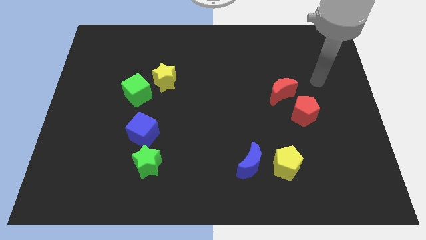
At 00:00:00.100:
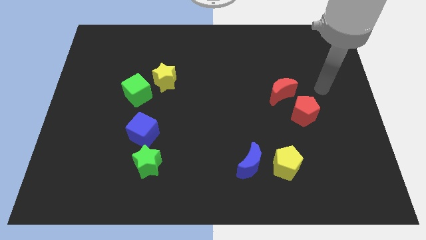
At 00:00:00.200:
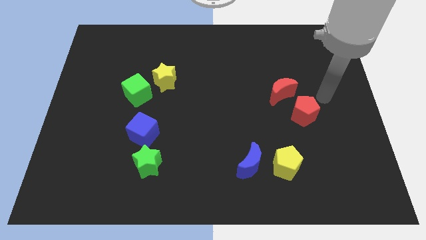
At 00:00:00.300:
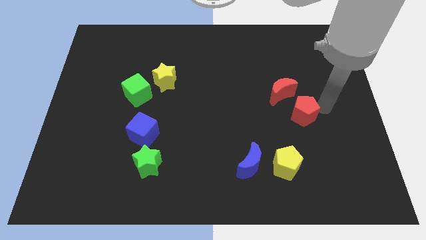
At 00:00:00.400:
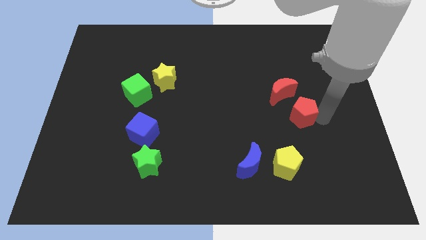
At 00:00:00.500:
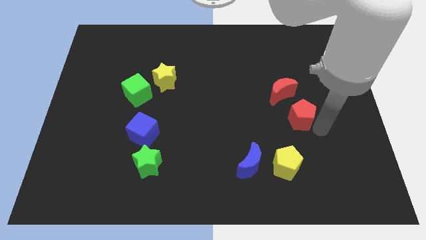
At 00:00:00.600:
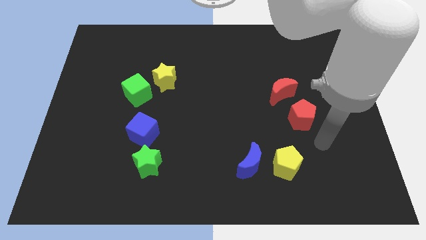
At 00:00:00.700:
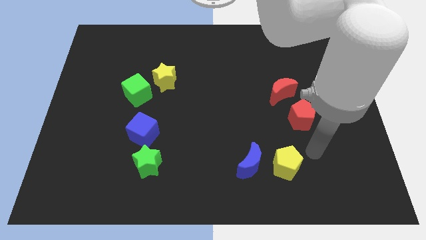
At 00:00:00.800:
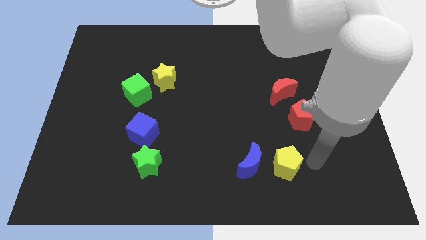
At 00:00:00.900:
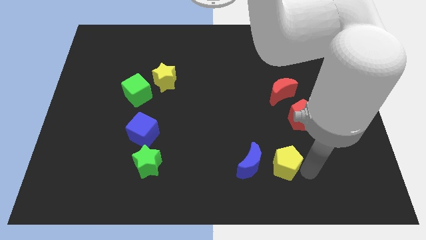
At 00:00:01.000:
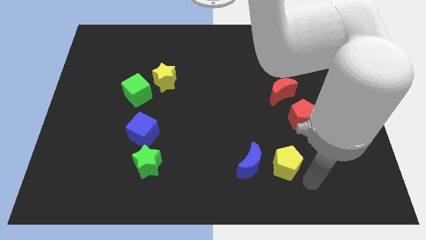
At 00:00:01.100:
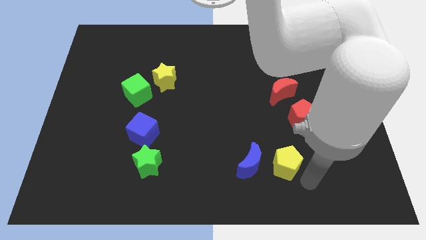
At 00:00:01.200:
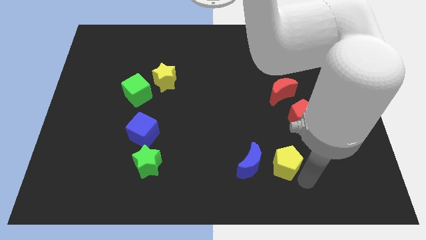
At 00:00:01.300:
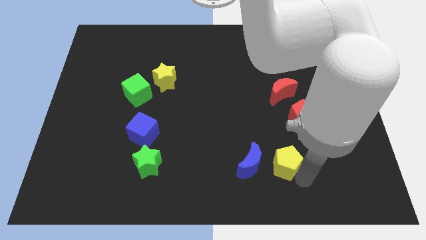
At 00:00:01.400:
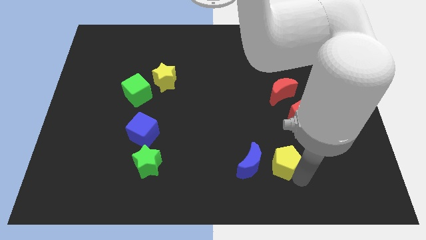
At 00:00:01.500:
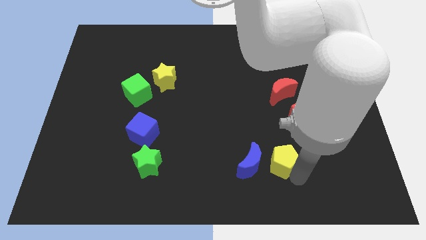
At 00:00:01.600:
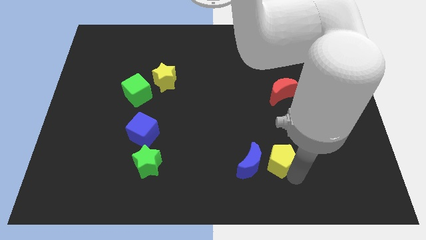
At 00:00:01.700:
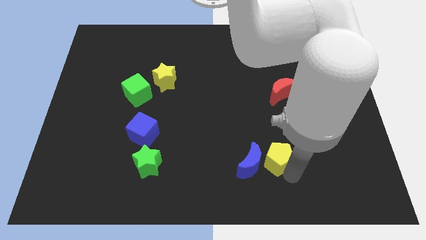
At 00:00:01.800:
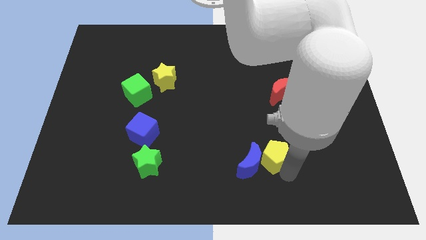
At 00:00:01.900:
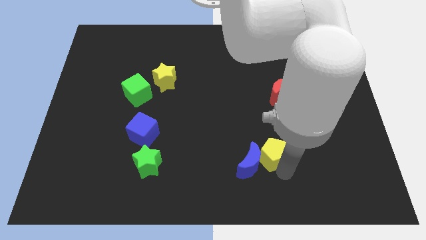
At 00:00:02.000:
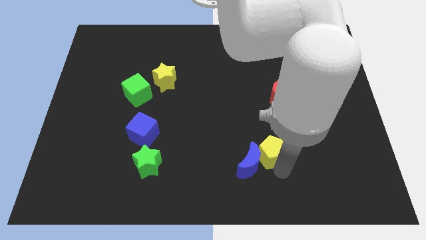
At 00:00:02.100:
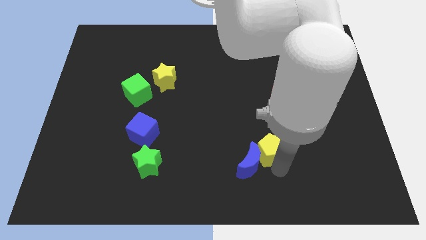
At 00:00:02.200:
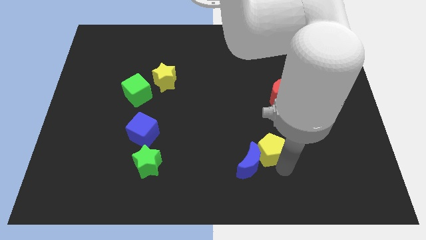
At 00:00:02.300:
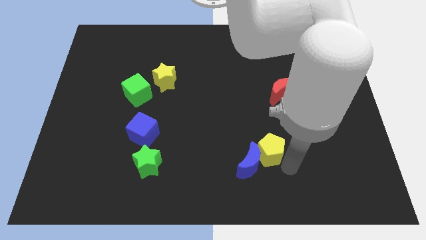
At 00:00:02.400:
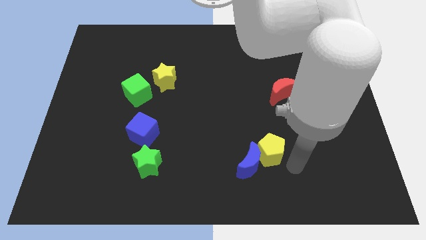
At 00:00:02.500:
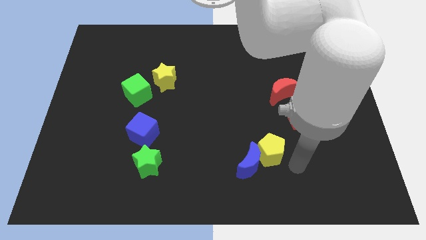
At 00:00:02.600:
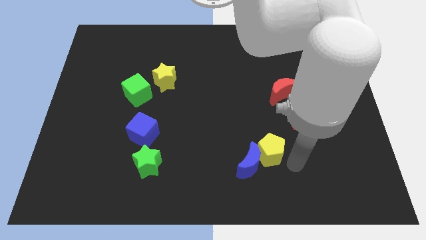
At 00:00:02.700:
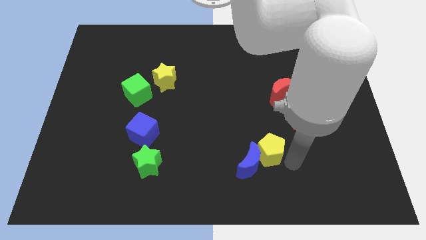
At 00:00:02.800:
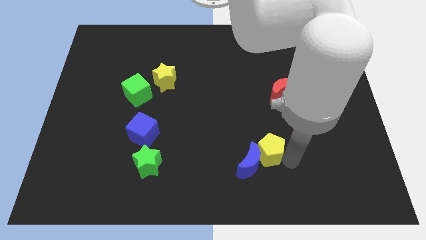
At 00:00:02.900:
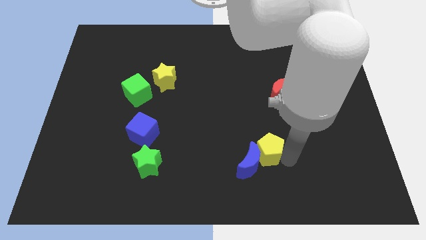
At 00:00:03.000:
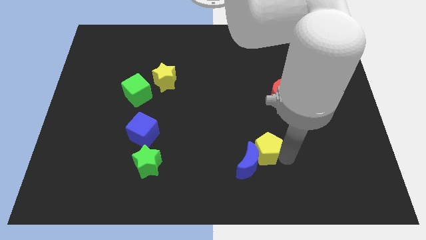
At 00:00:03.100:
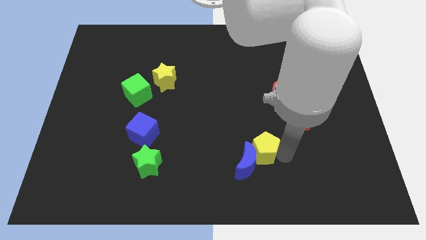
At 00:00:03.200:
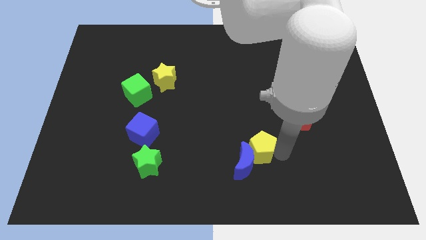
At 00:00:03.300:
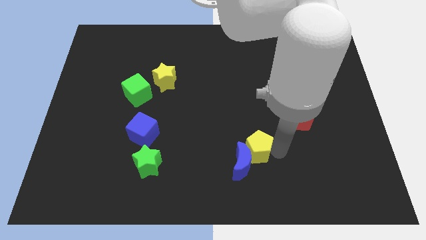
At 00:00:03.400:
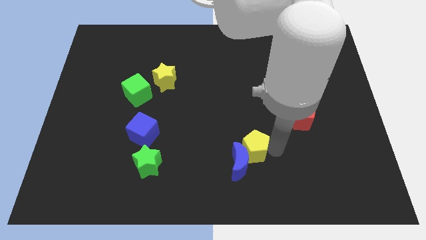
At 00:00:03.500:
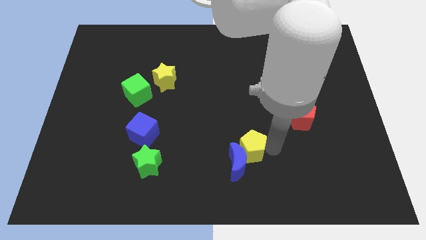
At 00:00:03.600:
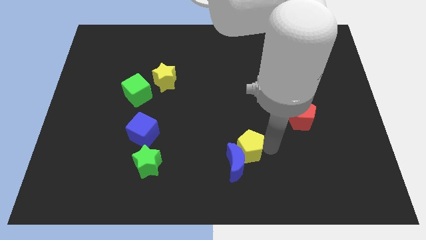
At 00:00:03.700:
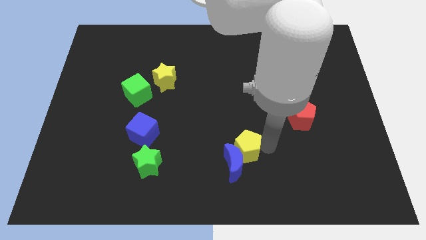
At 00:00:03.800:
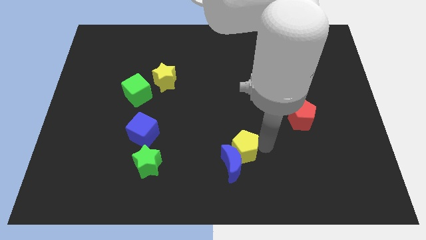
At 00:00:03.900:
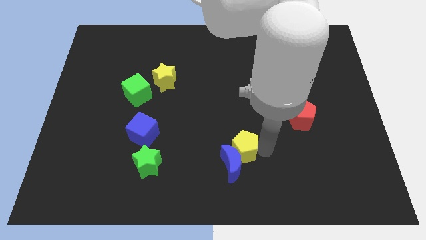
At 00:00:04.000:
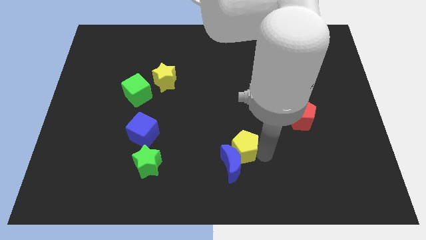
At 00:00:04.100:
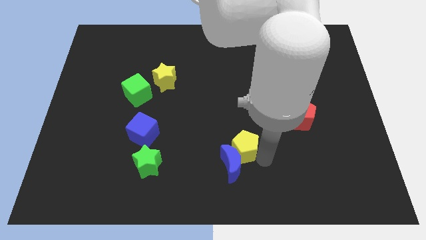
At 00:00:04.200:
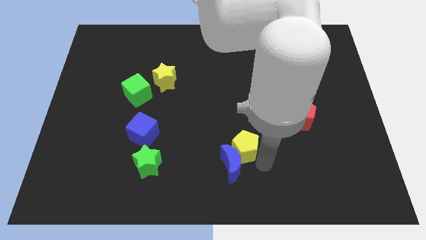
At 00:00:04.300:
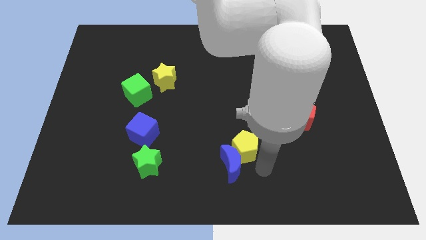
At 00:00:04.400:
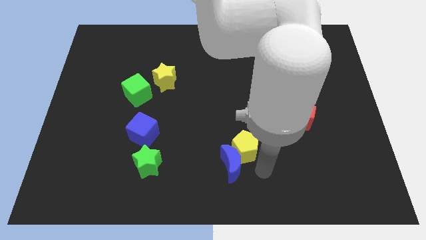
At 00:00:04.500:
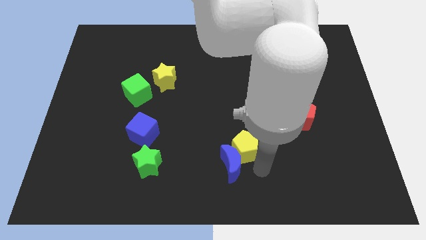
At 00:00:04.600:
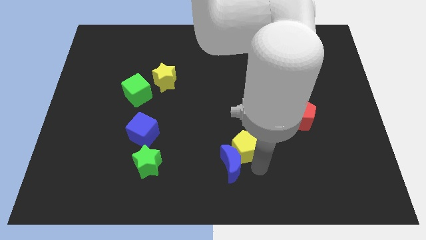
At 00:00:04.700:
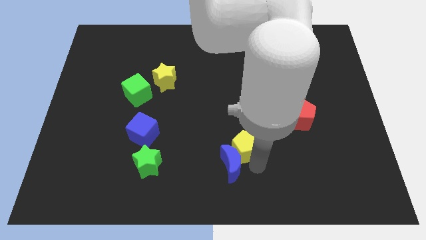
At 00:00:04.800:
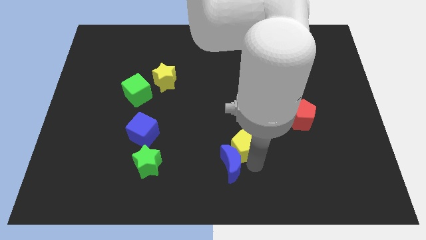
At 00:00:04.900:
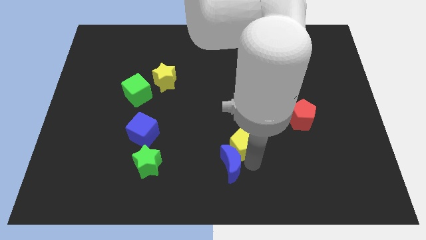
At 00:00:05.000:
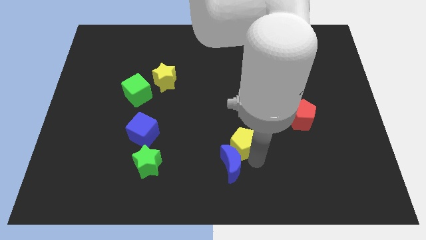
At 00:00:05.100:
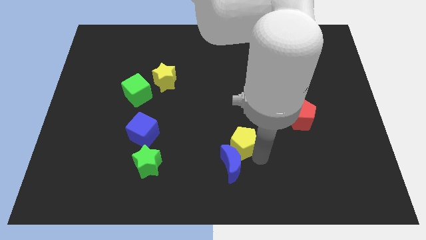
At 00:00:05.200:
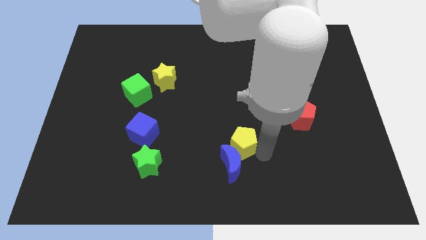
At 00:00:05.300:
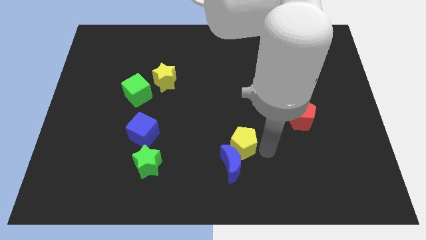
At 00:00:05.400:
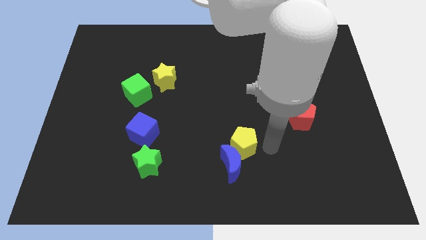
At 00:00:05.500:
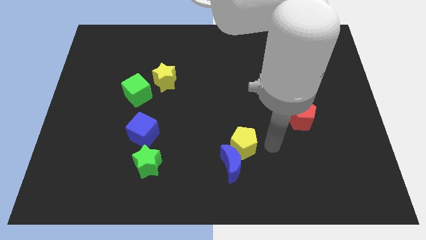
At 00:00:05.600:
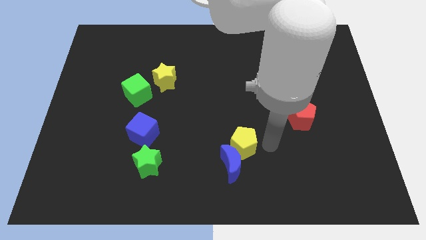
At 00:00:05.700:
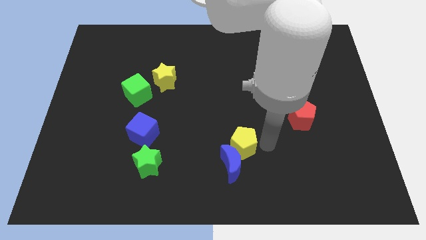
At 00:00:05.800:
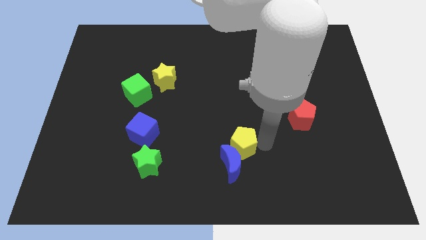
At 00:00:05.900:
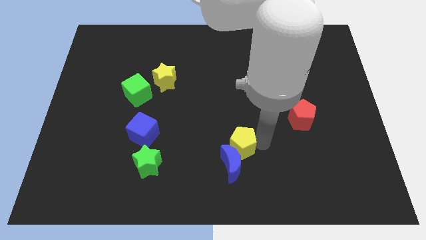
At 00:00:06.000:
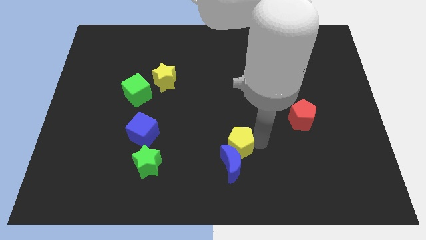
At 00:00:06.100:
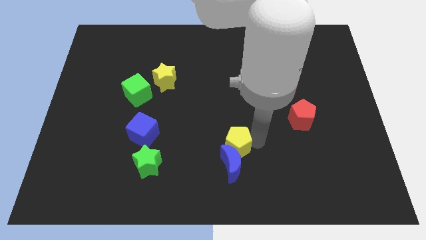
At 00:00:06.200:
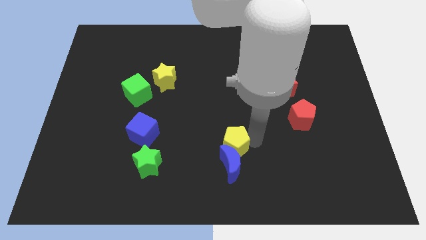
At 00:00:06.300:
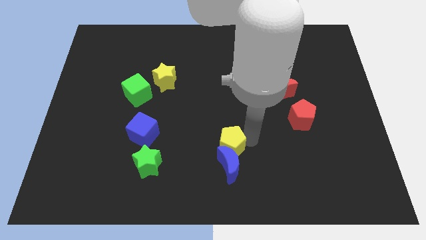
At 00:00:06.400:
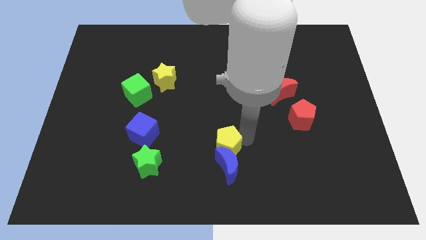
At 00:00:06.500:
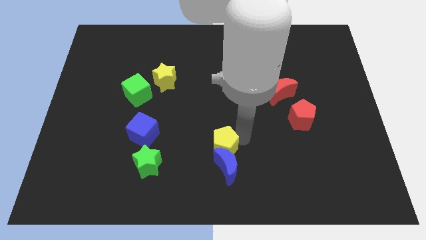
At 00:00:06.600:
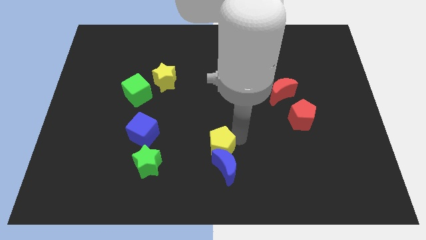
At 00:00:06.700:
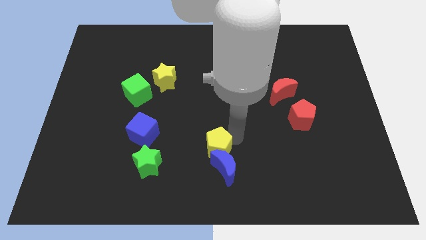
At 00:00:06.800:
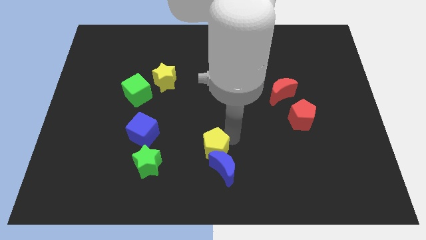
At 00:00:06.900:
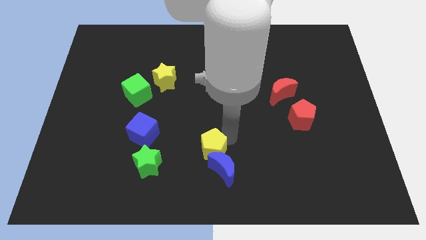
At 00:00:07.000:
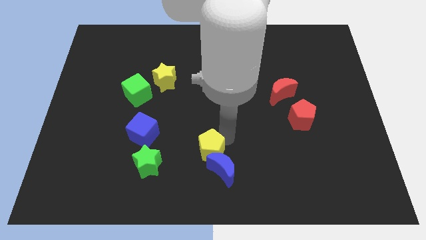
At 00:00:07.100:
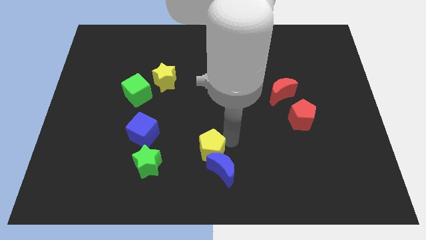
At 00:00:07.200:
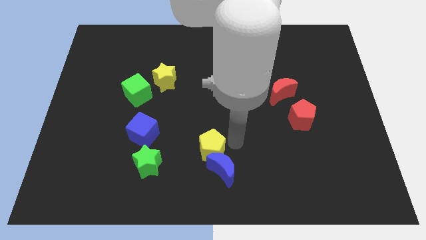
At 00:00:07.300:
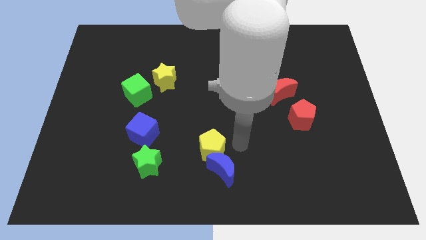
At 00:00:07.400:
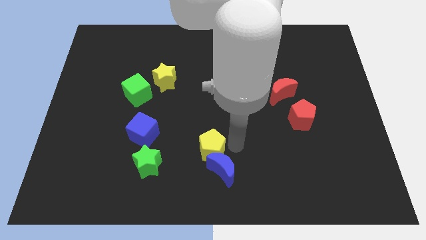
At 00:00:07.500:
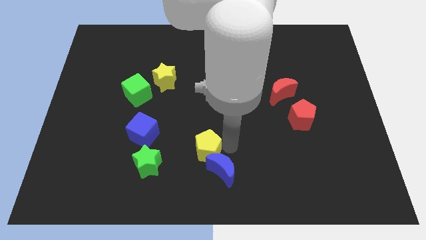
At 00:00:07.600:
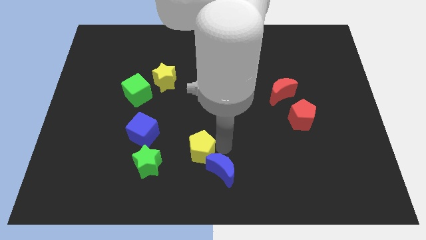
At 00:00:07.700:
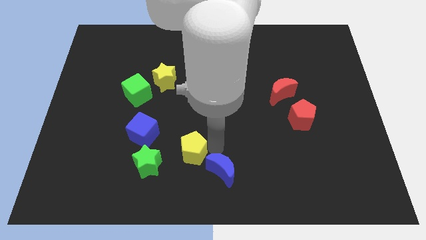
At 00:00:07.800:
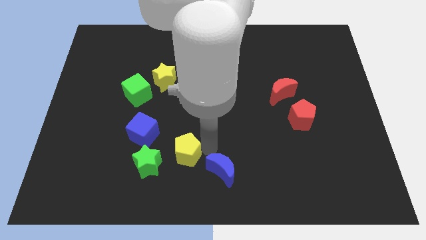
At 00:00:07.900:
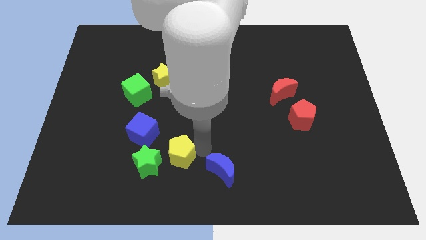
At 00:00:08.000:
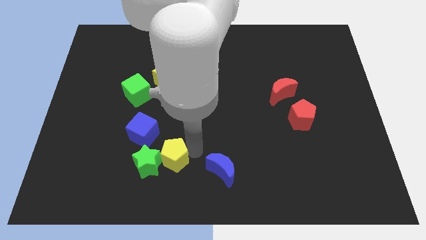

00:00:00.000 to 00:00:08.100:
move the yellow pentagon close to the green star
